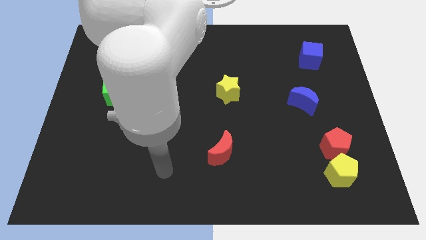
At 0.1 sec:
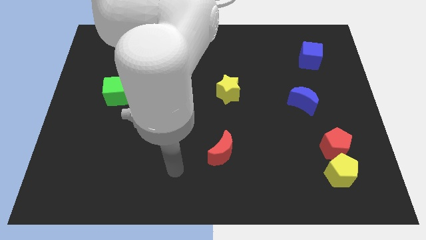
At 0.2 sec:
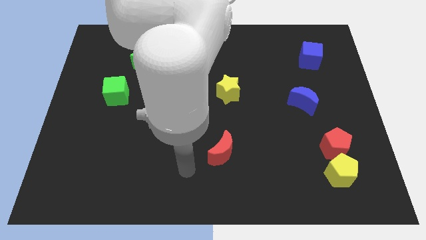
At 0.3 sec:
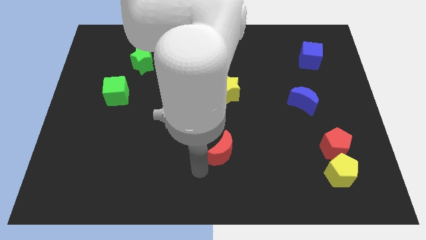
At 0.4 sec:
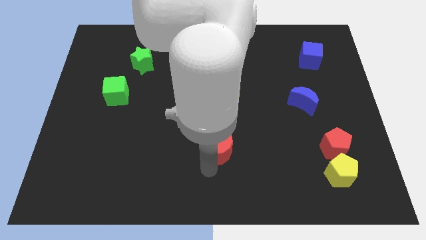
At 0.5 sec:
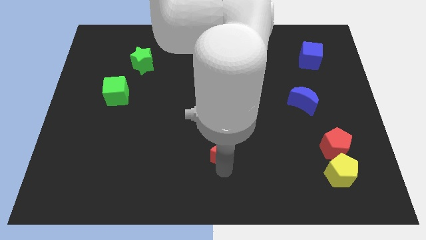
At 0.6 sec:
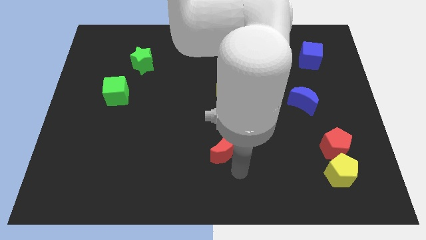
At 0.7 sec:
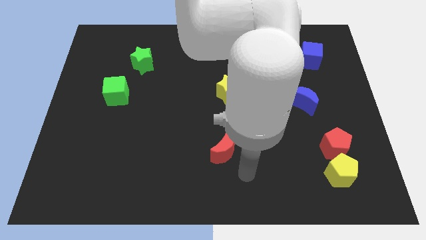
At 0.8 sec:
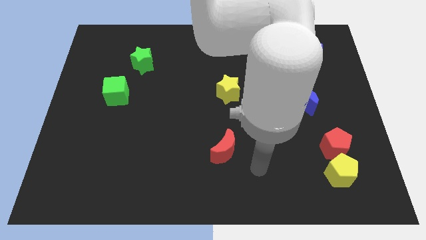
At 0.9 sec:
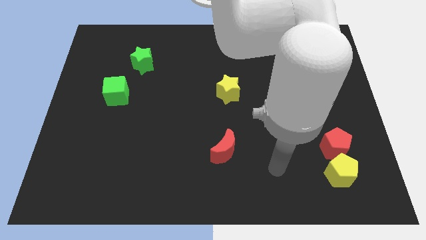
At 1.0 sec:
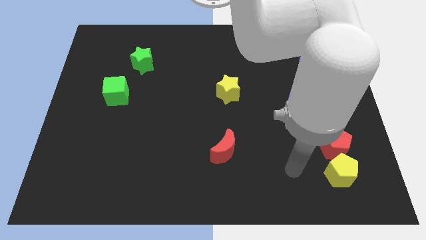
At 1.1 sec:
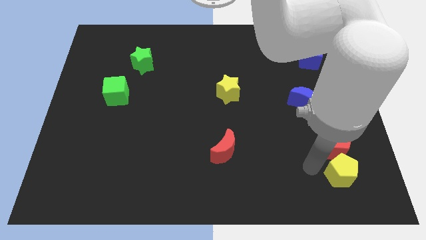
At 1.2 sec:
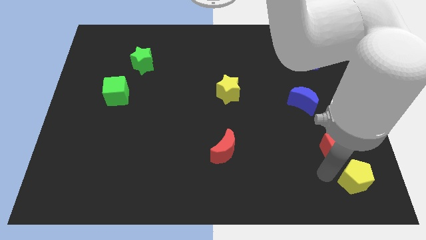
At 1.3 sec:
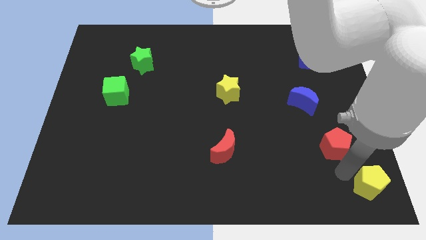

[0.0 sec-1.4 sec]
move the red pentagon away from the yellow pentagon

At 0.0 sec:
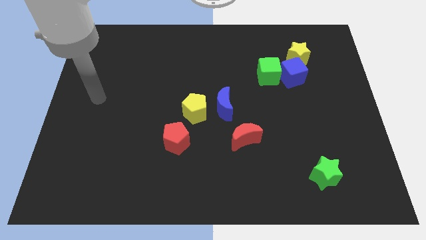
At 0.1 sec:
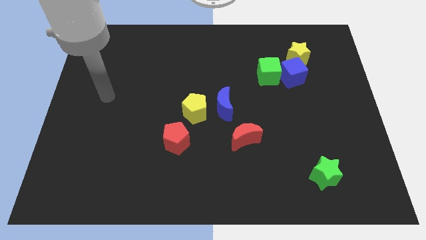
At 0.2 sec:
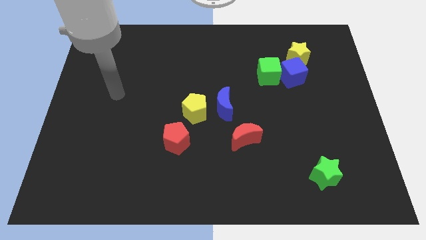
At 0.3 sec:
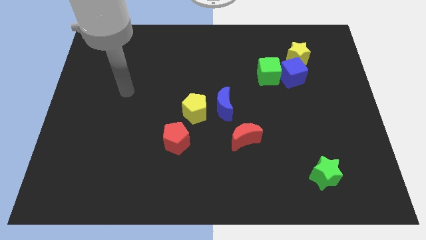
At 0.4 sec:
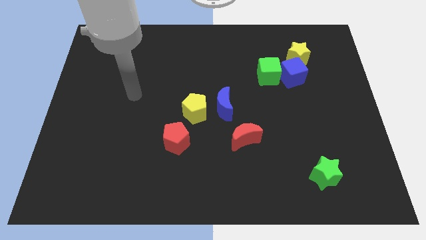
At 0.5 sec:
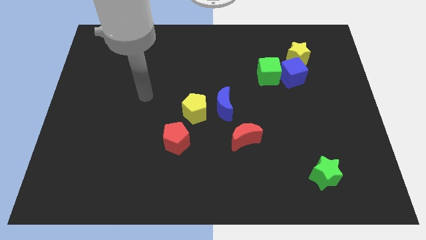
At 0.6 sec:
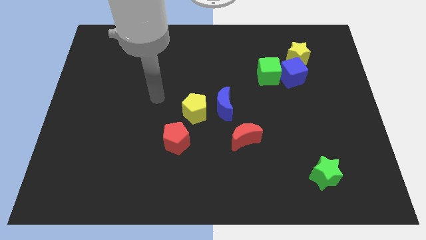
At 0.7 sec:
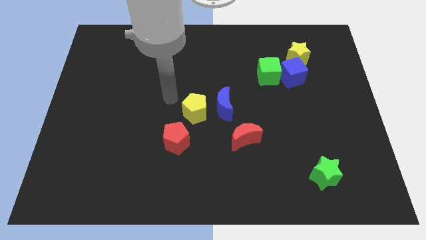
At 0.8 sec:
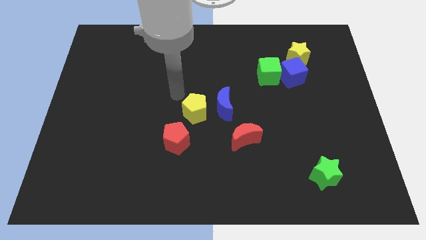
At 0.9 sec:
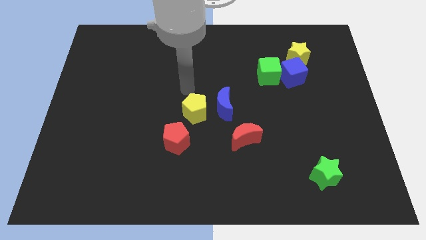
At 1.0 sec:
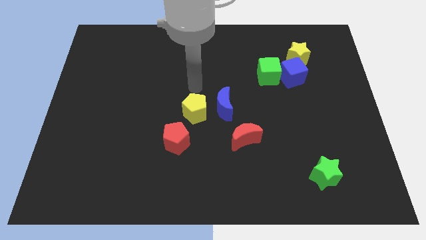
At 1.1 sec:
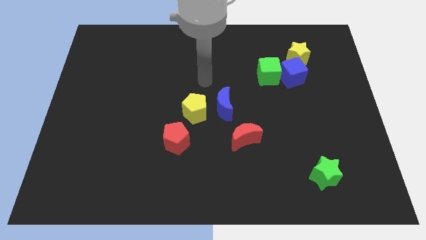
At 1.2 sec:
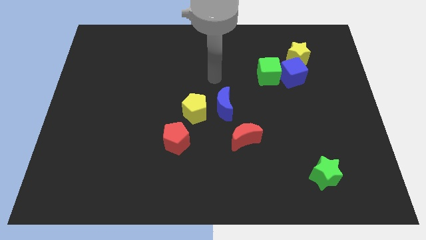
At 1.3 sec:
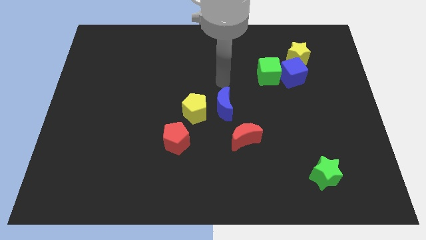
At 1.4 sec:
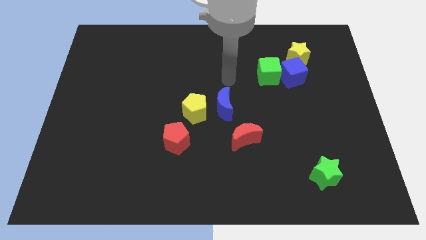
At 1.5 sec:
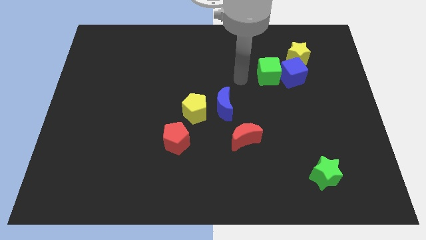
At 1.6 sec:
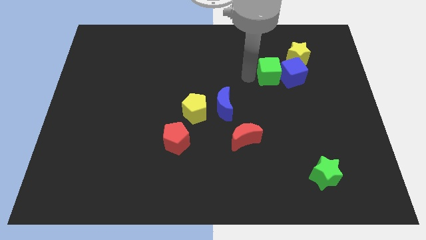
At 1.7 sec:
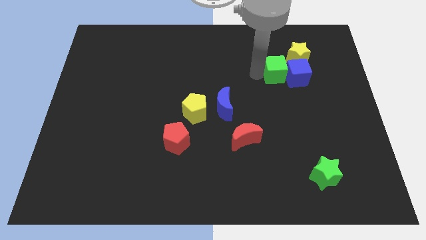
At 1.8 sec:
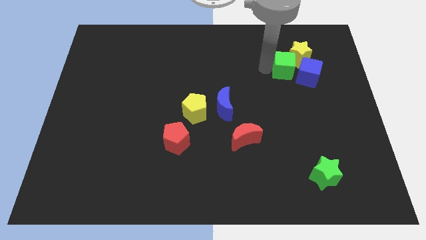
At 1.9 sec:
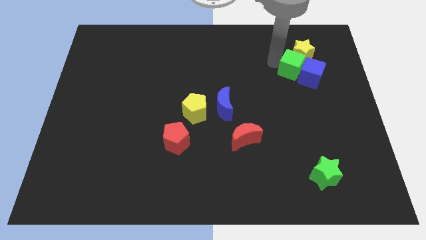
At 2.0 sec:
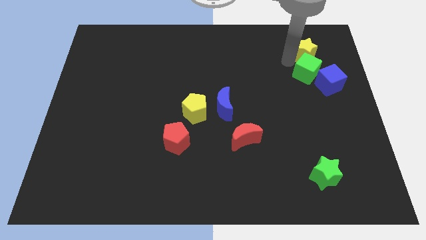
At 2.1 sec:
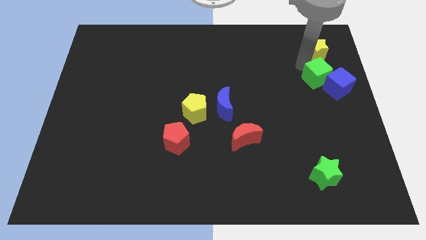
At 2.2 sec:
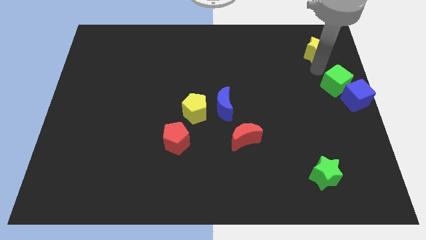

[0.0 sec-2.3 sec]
move the blue cube away from the green cube and yellow star

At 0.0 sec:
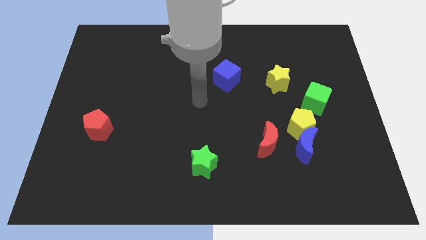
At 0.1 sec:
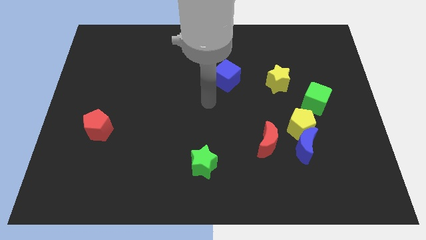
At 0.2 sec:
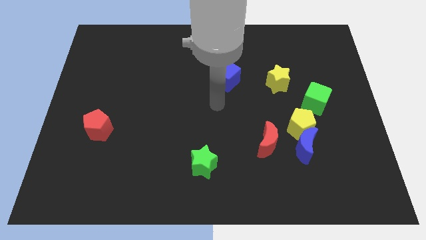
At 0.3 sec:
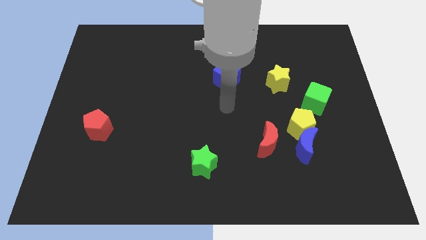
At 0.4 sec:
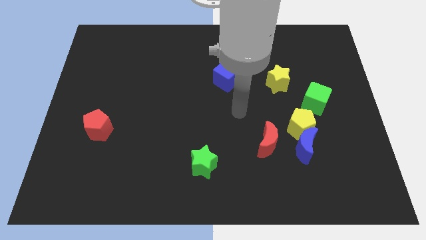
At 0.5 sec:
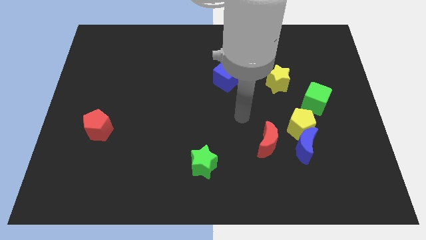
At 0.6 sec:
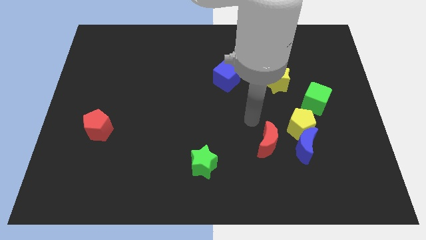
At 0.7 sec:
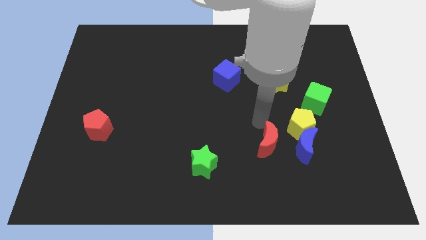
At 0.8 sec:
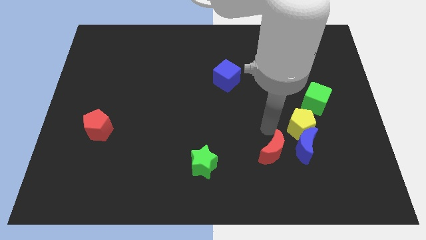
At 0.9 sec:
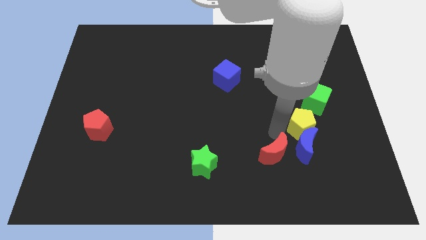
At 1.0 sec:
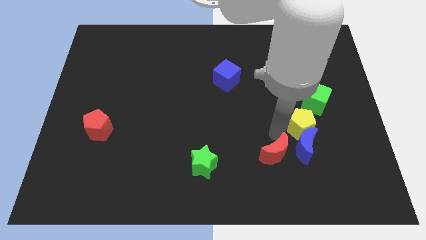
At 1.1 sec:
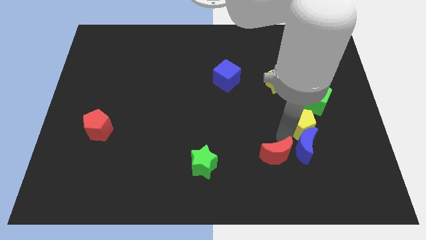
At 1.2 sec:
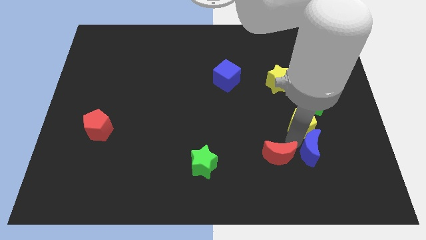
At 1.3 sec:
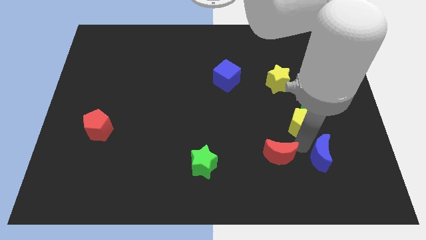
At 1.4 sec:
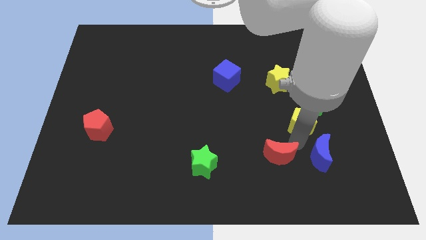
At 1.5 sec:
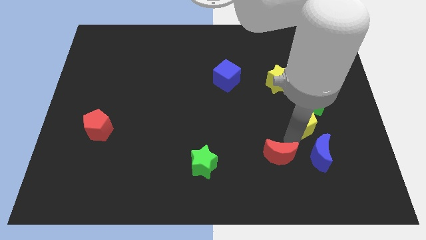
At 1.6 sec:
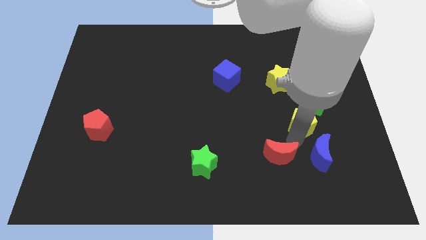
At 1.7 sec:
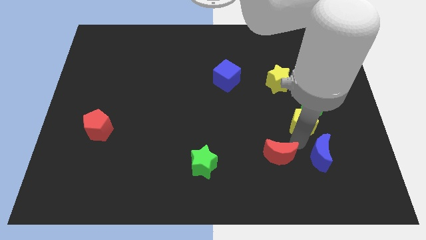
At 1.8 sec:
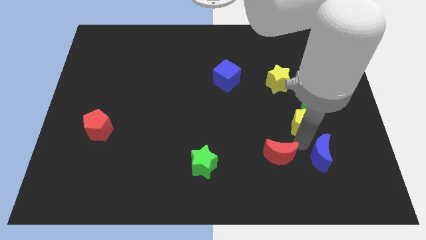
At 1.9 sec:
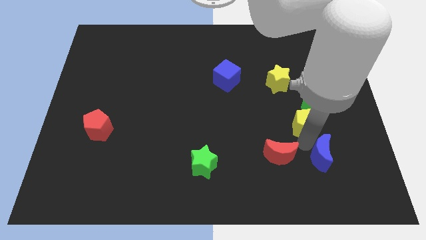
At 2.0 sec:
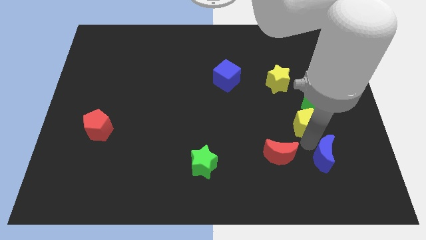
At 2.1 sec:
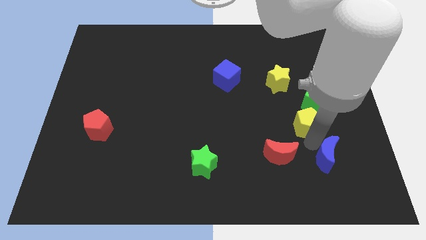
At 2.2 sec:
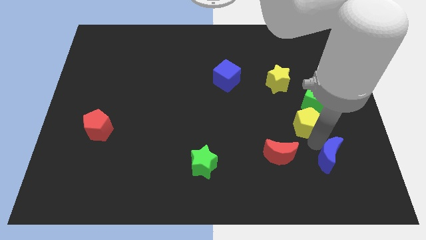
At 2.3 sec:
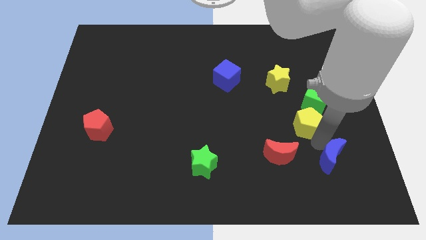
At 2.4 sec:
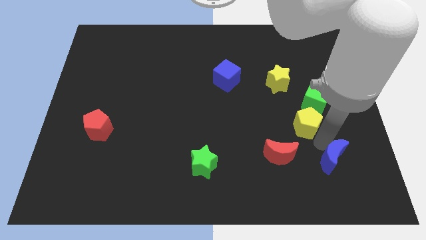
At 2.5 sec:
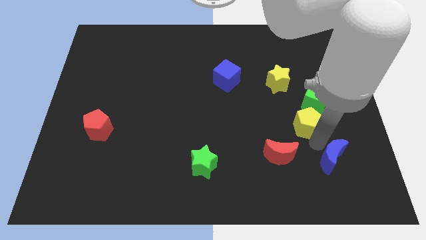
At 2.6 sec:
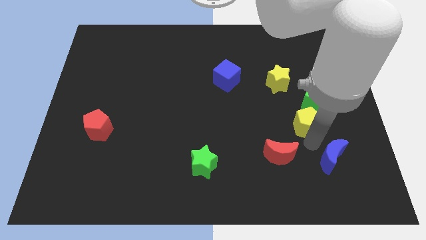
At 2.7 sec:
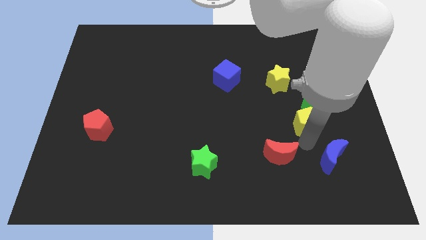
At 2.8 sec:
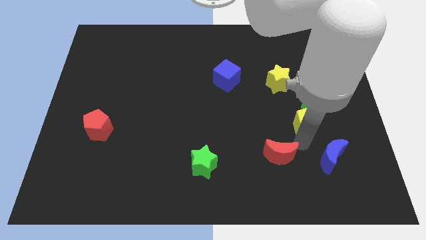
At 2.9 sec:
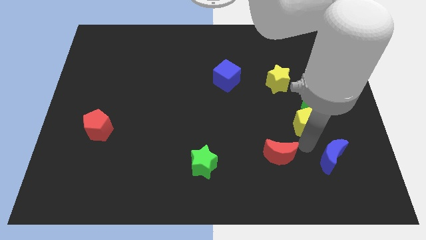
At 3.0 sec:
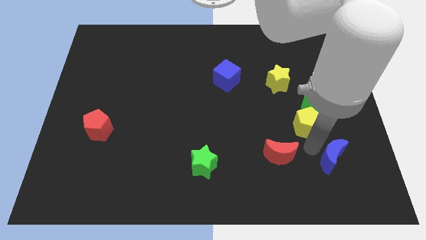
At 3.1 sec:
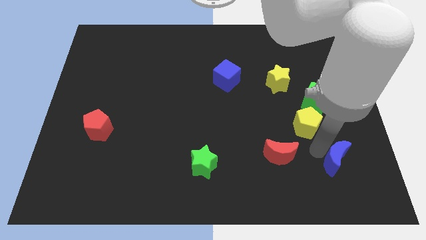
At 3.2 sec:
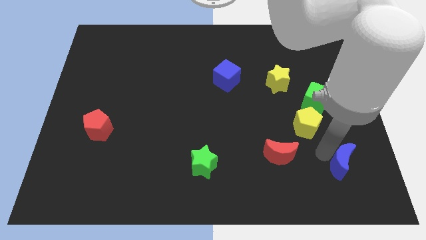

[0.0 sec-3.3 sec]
move the blue moon away from the yellow pentagon and red moon

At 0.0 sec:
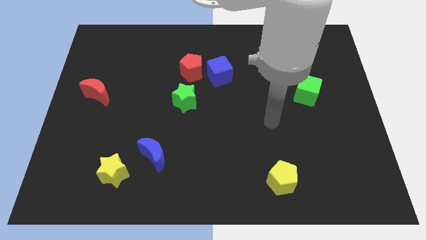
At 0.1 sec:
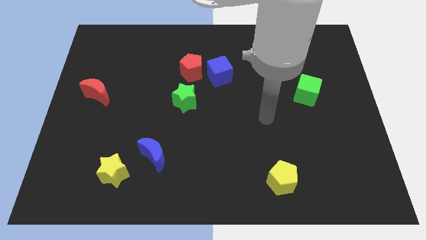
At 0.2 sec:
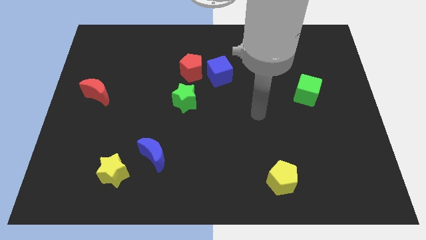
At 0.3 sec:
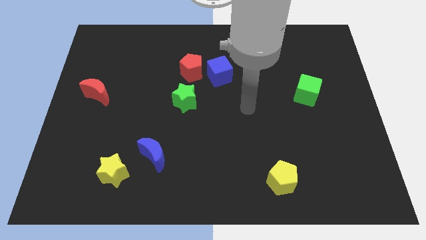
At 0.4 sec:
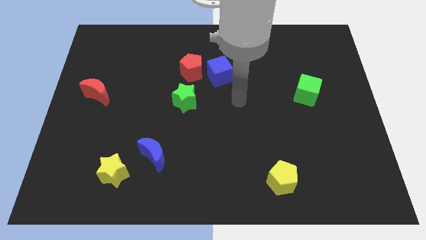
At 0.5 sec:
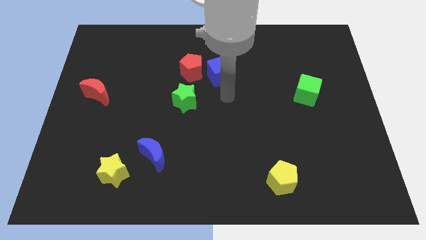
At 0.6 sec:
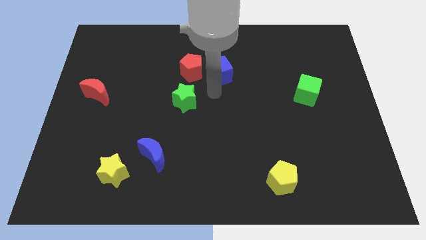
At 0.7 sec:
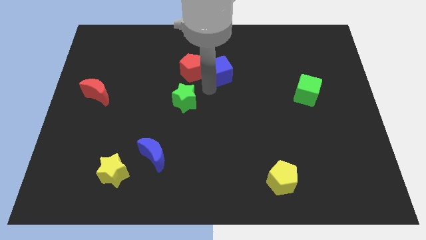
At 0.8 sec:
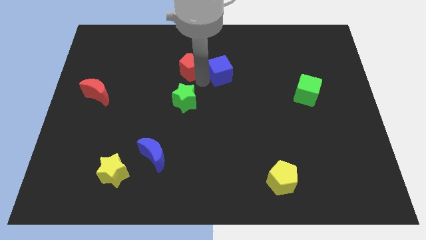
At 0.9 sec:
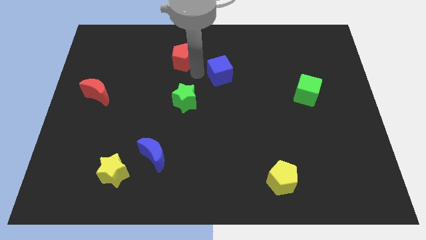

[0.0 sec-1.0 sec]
separate the blue cube from the red pentagon

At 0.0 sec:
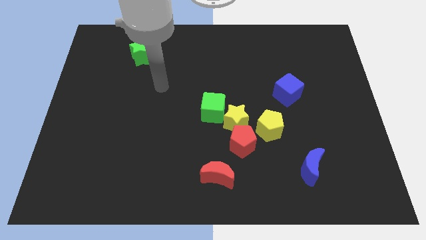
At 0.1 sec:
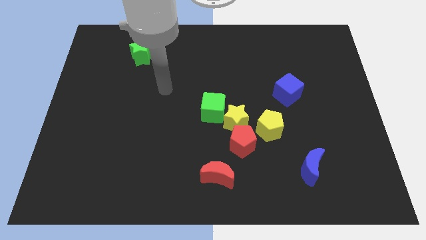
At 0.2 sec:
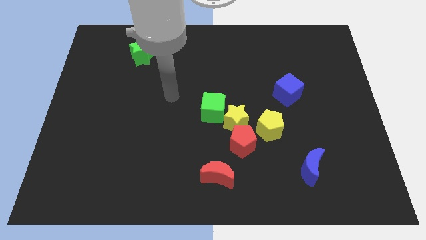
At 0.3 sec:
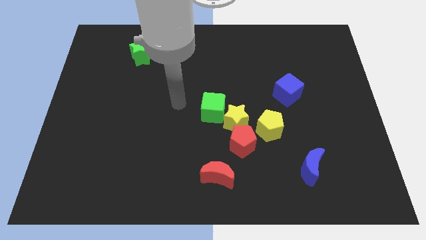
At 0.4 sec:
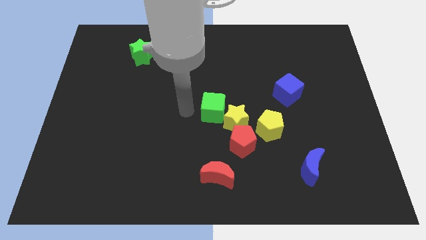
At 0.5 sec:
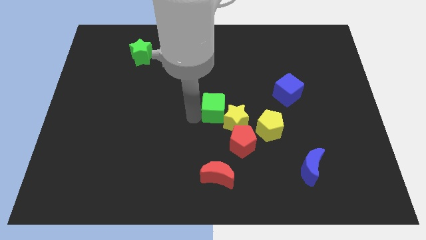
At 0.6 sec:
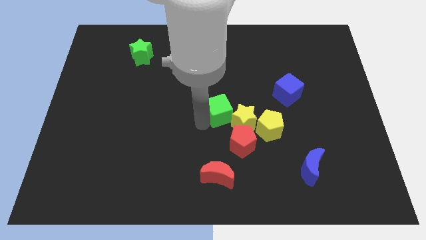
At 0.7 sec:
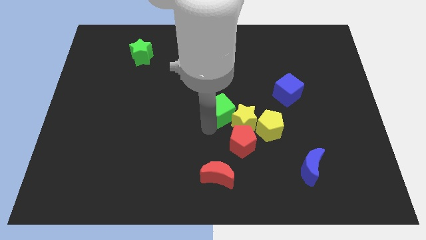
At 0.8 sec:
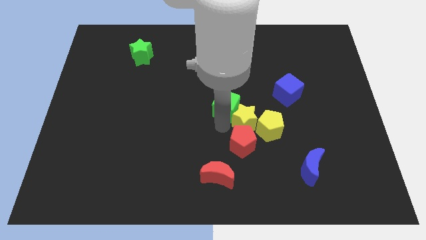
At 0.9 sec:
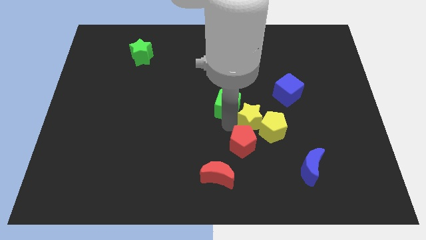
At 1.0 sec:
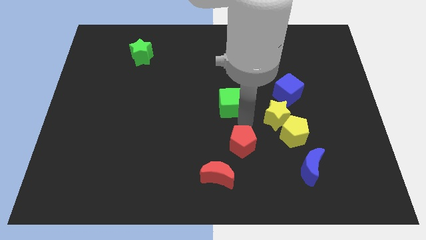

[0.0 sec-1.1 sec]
separate the green cube from the yellow star

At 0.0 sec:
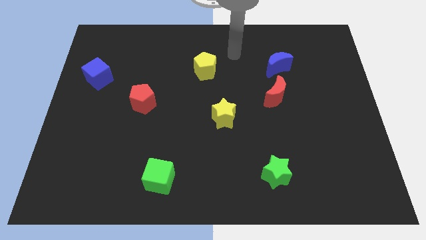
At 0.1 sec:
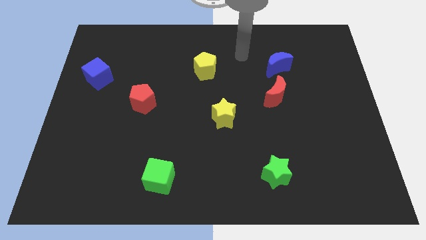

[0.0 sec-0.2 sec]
pull the red moon apart from the blue moon

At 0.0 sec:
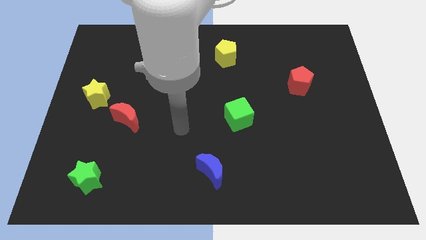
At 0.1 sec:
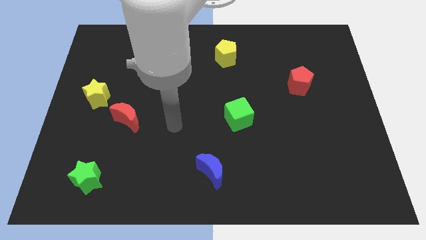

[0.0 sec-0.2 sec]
pull the red moon apart from the yellow star
